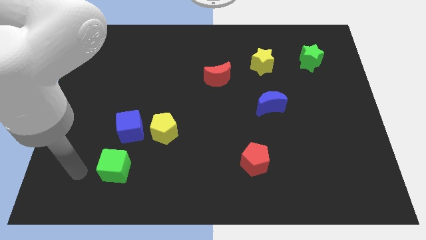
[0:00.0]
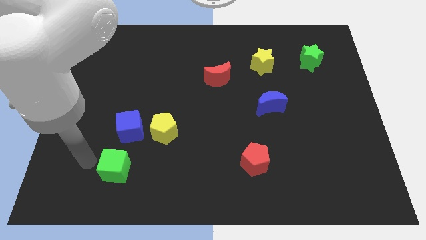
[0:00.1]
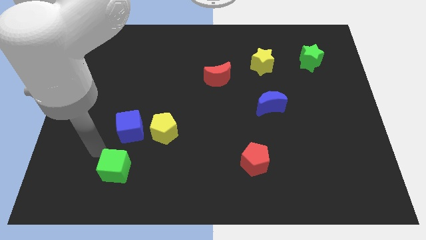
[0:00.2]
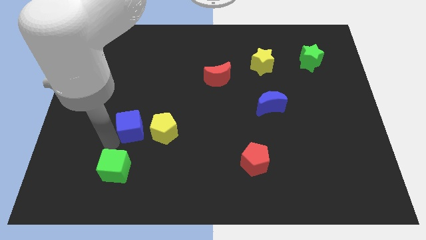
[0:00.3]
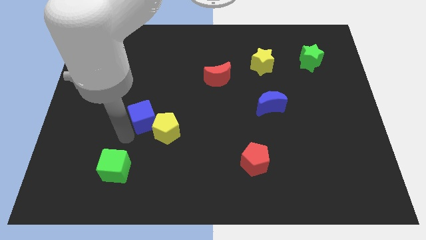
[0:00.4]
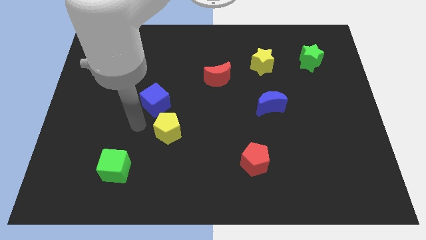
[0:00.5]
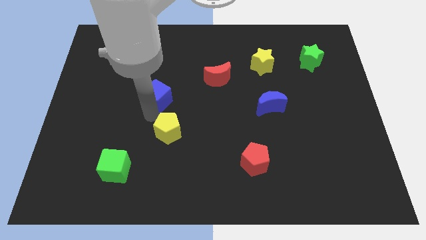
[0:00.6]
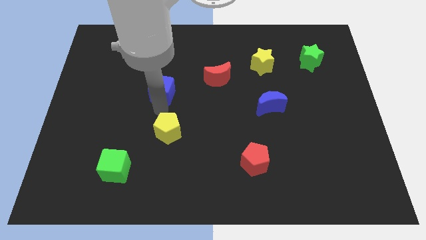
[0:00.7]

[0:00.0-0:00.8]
move the yellow pentagon away from the blue cube

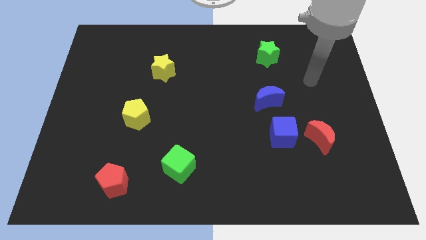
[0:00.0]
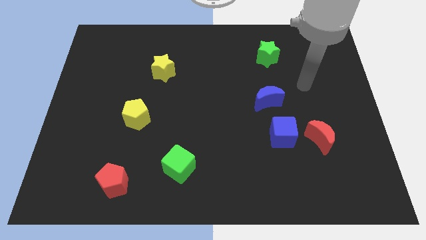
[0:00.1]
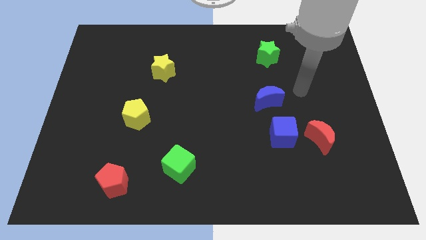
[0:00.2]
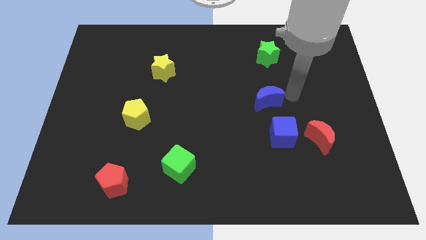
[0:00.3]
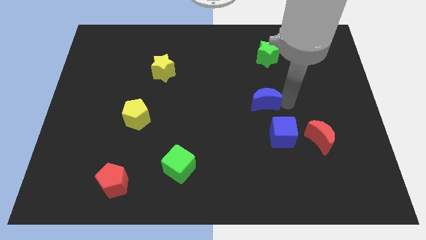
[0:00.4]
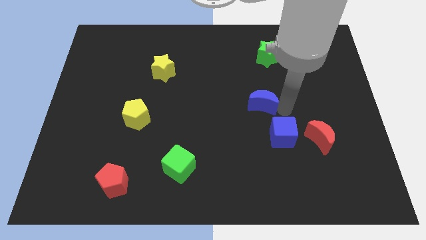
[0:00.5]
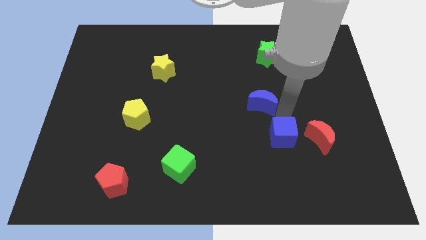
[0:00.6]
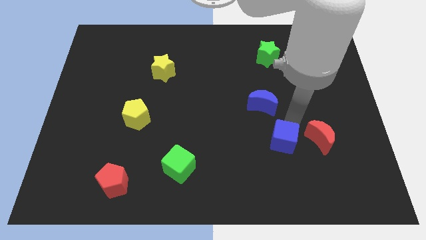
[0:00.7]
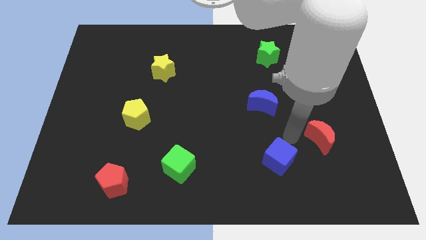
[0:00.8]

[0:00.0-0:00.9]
separate the red moon from the blue cube

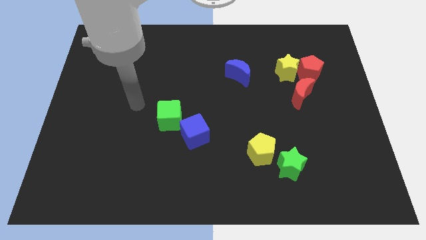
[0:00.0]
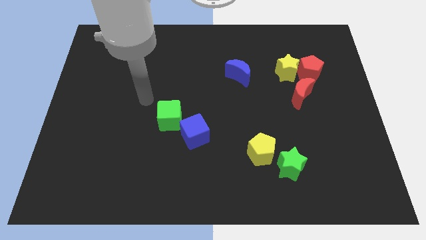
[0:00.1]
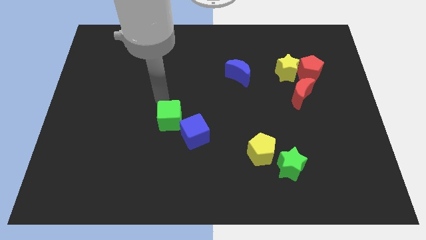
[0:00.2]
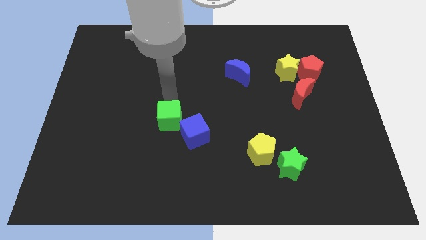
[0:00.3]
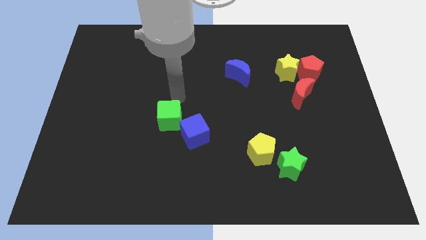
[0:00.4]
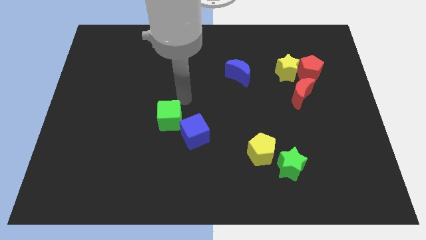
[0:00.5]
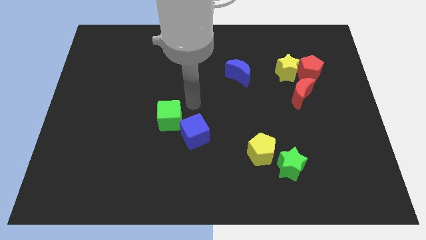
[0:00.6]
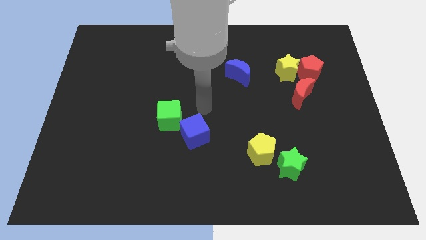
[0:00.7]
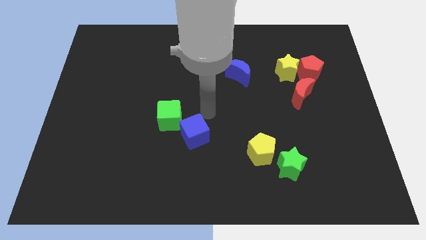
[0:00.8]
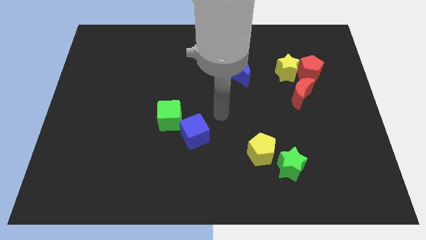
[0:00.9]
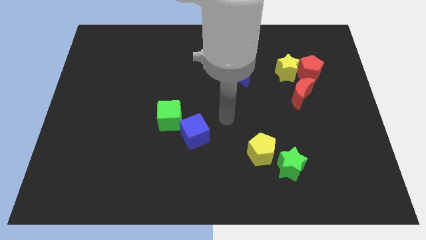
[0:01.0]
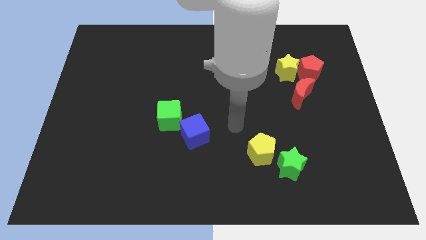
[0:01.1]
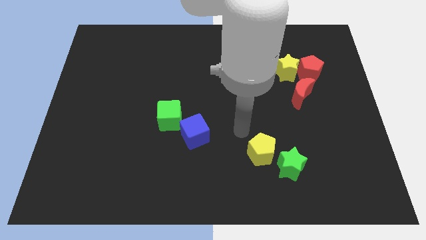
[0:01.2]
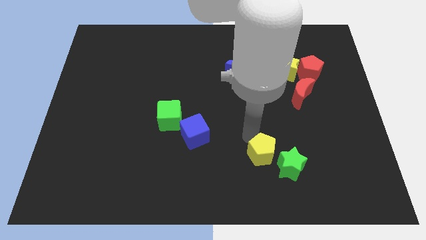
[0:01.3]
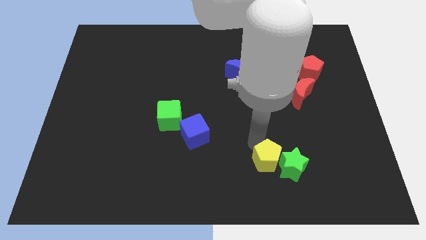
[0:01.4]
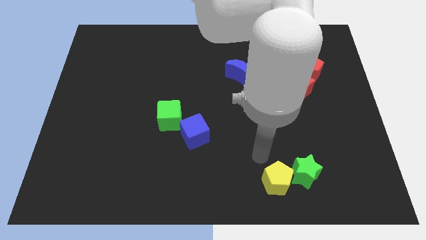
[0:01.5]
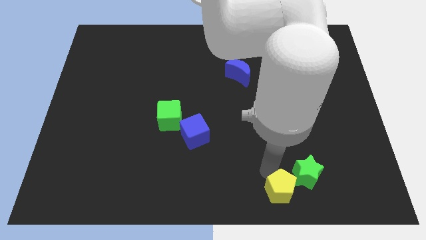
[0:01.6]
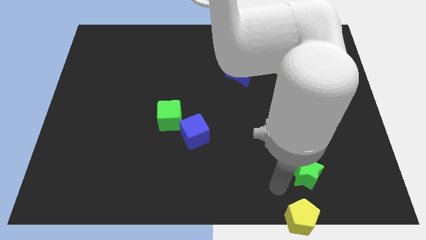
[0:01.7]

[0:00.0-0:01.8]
pull the green star apart from the yellow pentagon

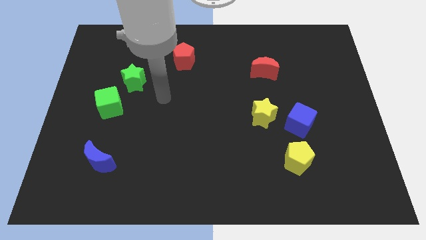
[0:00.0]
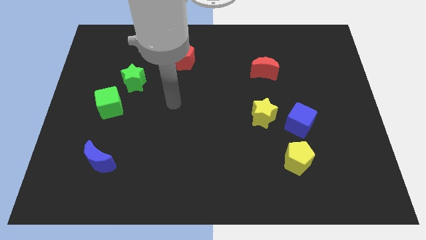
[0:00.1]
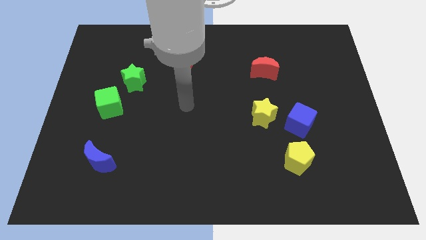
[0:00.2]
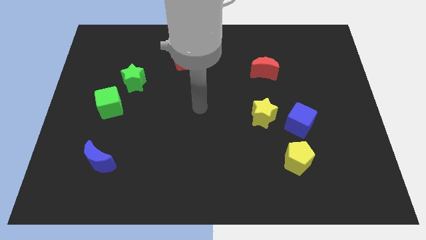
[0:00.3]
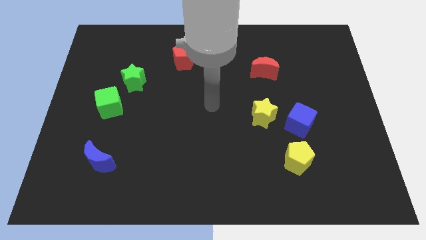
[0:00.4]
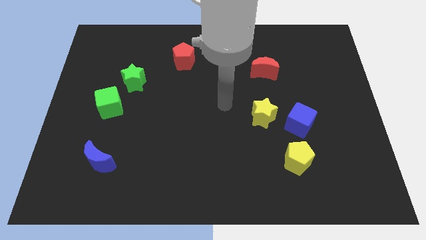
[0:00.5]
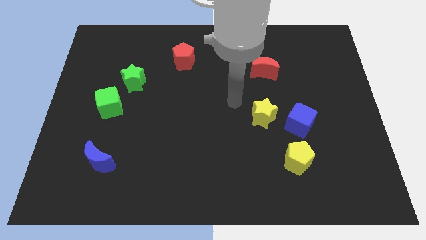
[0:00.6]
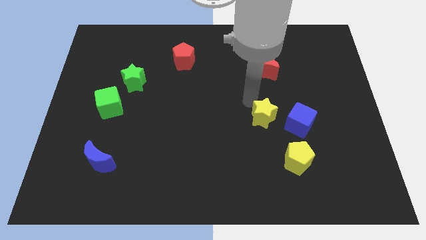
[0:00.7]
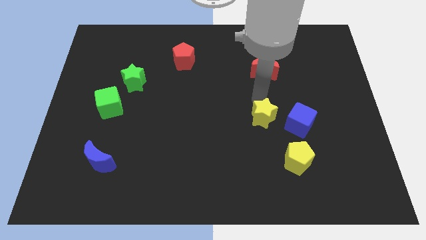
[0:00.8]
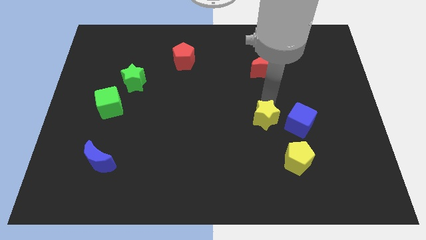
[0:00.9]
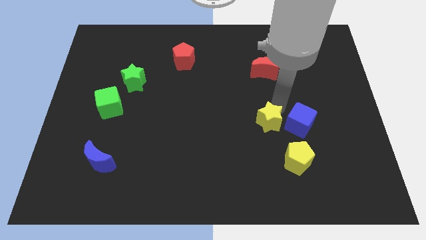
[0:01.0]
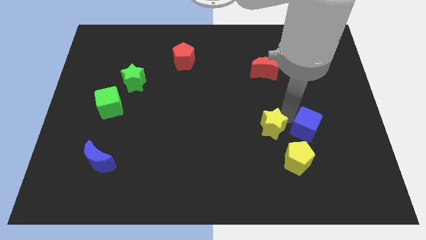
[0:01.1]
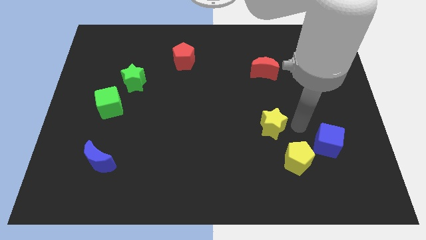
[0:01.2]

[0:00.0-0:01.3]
separate the yellow star from the blue cube

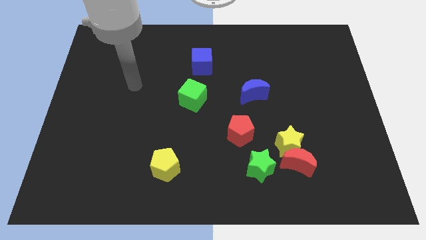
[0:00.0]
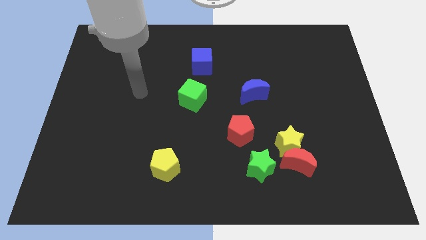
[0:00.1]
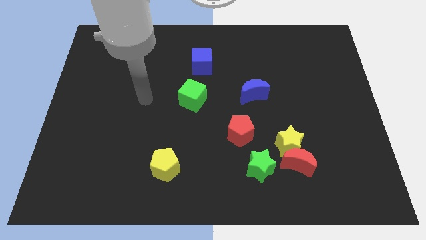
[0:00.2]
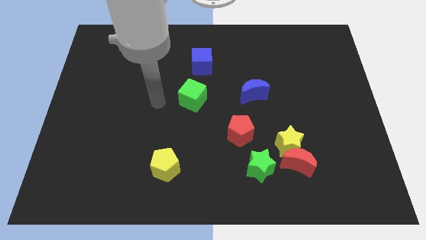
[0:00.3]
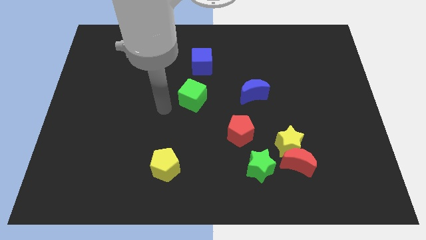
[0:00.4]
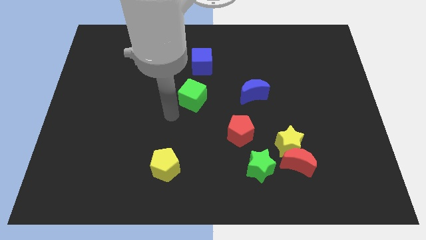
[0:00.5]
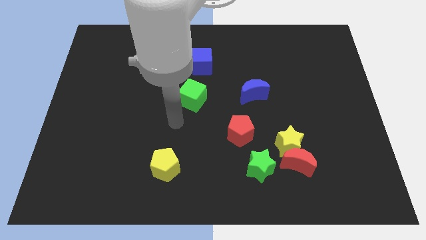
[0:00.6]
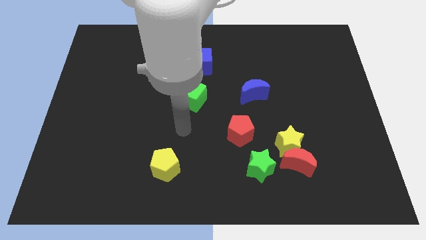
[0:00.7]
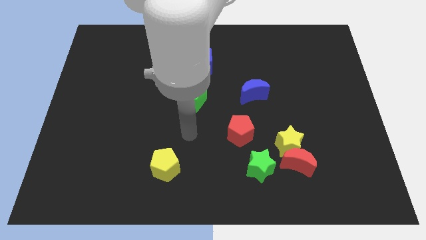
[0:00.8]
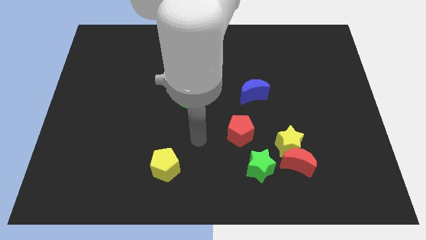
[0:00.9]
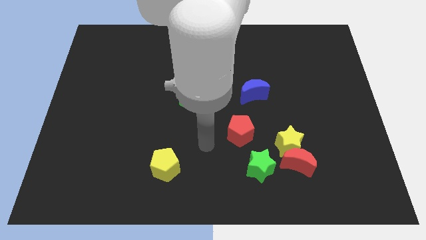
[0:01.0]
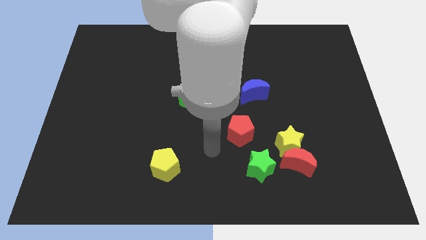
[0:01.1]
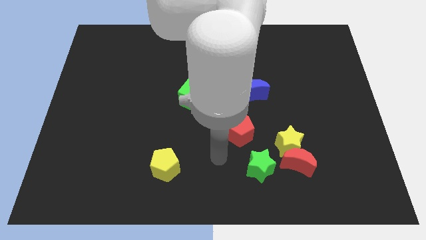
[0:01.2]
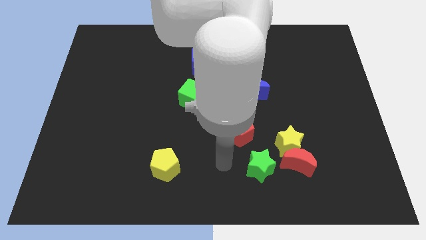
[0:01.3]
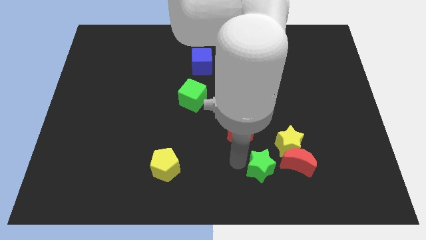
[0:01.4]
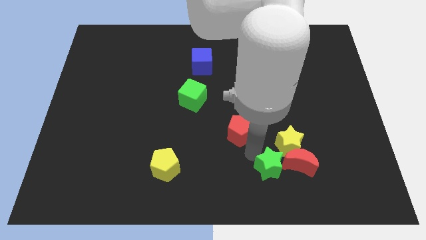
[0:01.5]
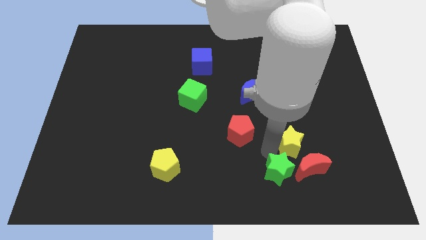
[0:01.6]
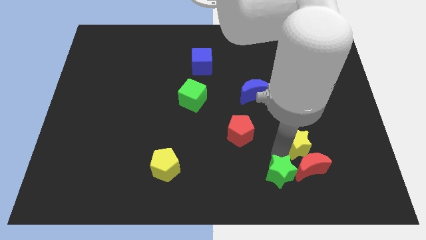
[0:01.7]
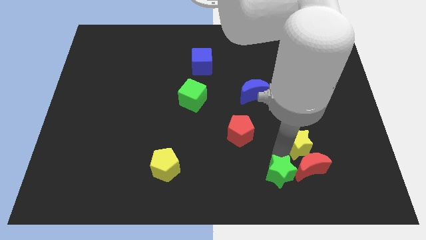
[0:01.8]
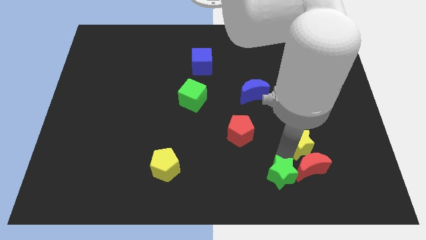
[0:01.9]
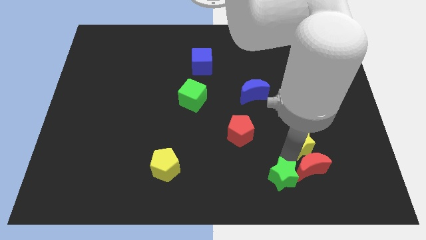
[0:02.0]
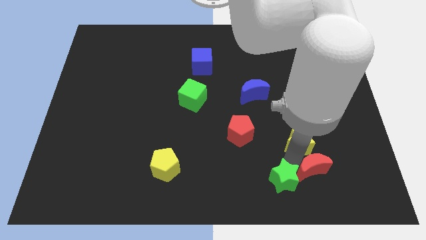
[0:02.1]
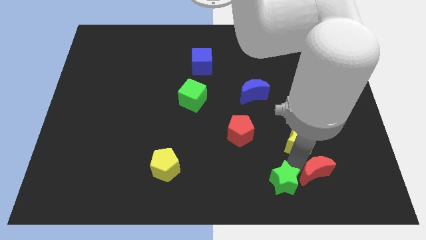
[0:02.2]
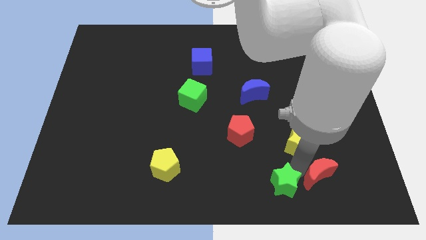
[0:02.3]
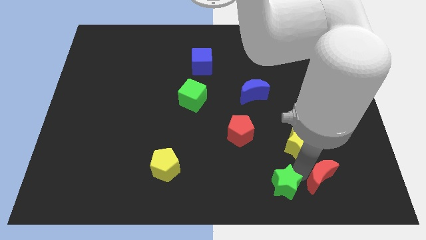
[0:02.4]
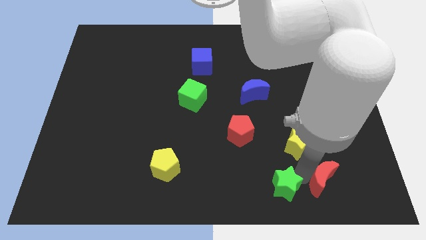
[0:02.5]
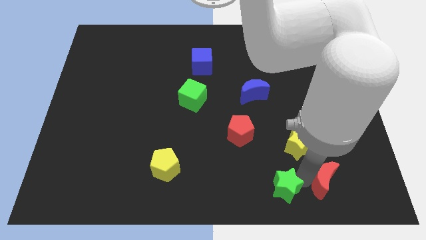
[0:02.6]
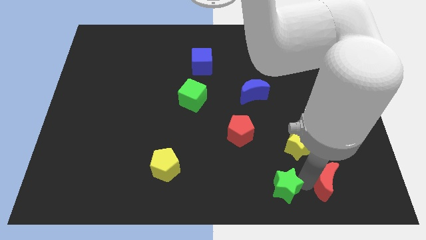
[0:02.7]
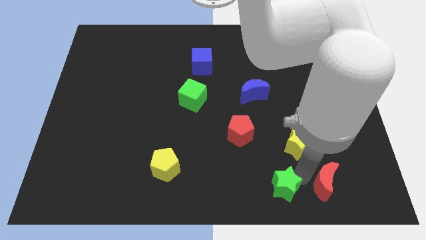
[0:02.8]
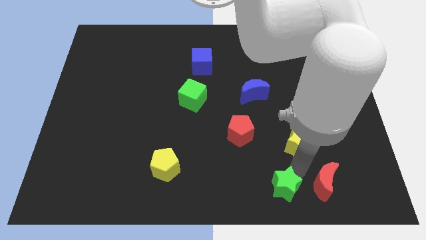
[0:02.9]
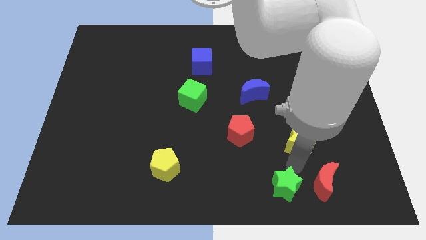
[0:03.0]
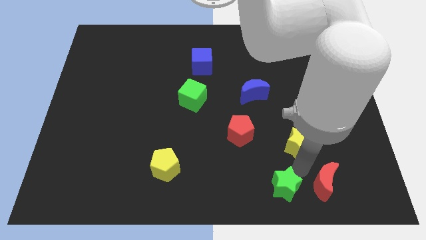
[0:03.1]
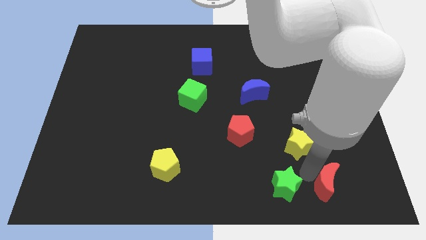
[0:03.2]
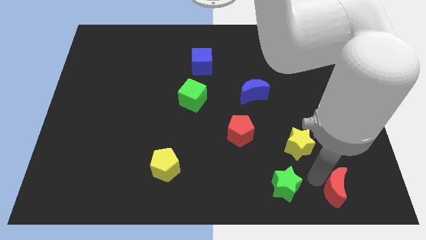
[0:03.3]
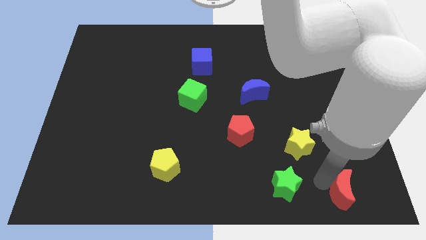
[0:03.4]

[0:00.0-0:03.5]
pull the red moon apart from the yellow star and green star

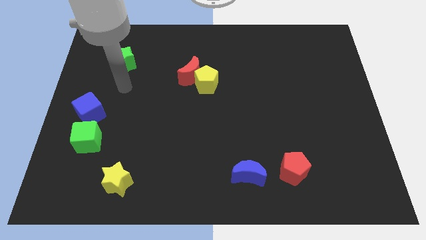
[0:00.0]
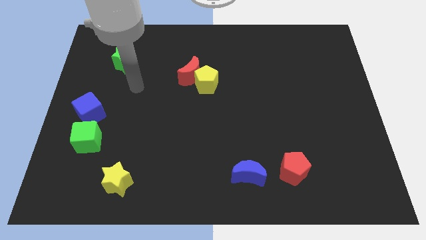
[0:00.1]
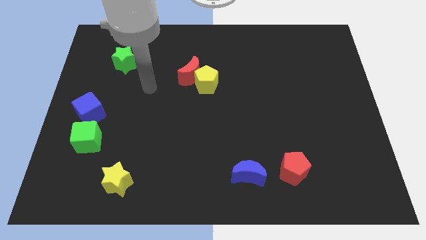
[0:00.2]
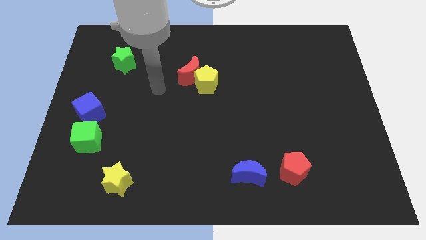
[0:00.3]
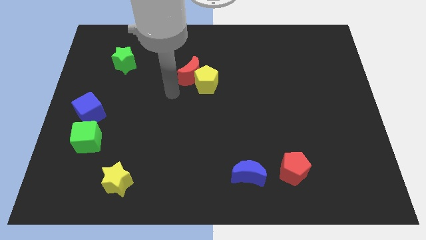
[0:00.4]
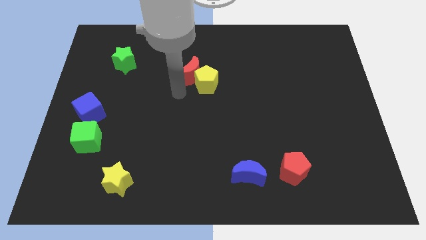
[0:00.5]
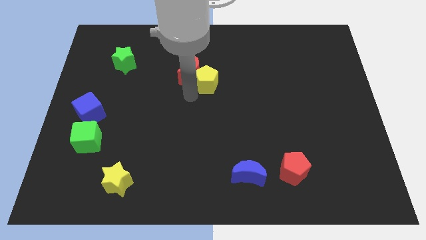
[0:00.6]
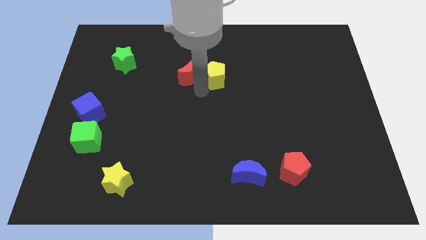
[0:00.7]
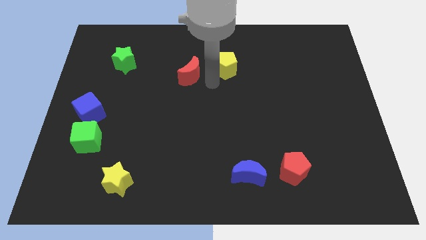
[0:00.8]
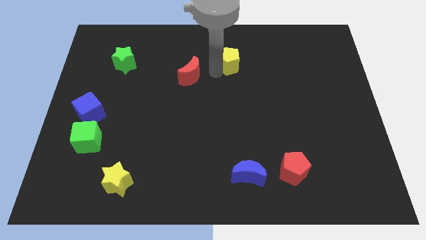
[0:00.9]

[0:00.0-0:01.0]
move the red moon away from the yellow pentagon
